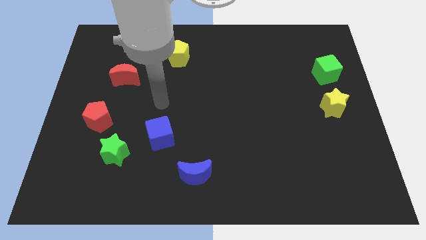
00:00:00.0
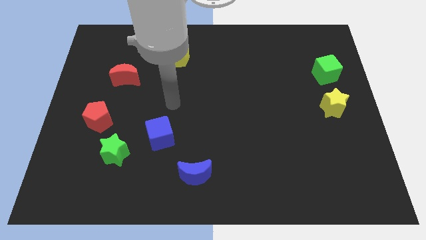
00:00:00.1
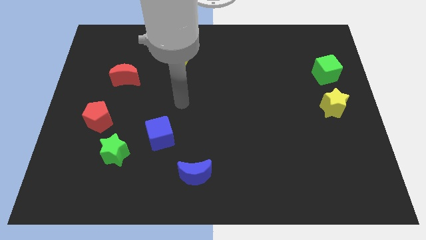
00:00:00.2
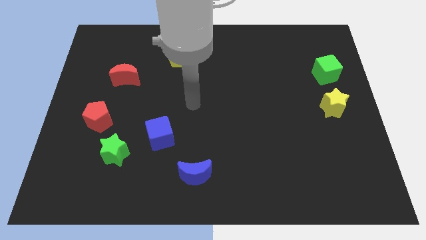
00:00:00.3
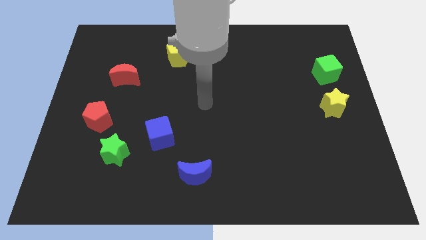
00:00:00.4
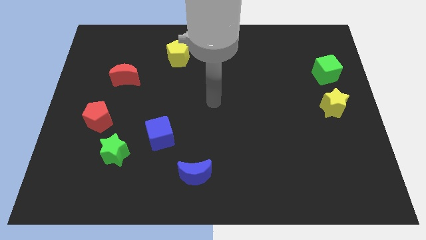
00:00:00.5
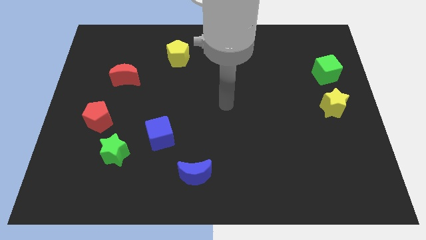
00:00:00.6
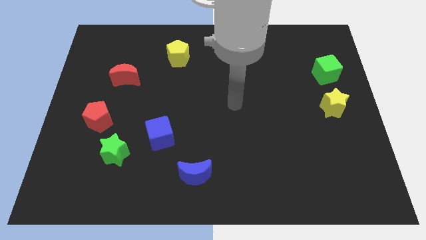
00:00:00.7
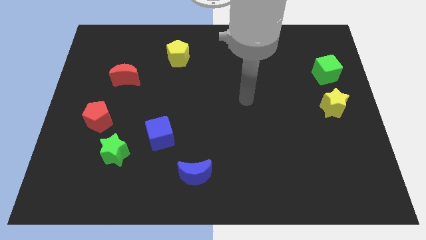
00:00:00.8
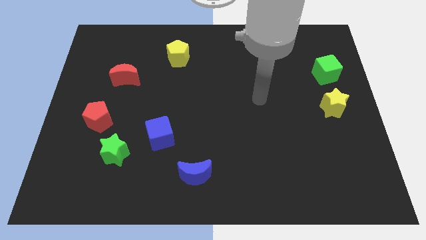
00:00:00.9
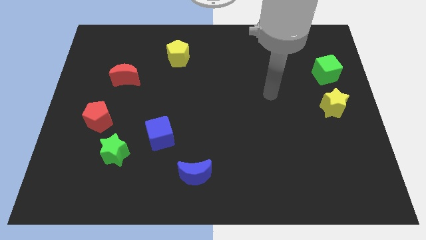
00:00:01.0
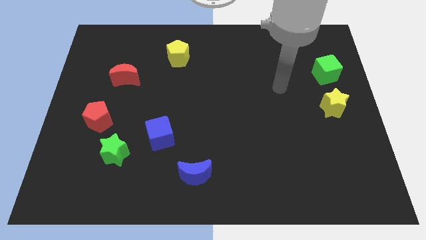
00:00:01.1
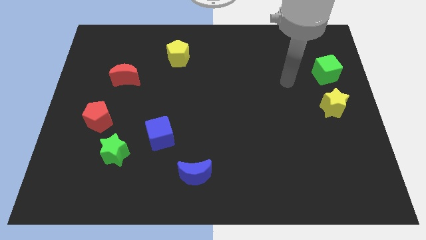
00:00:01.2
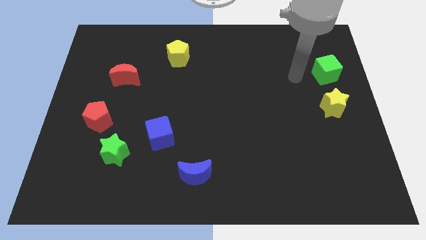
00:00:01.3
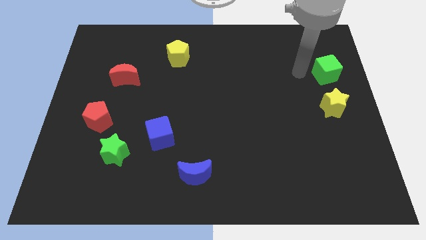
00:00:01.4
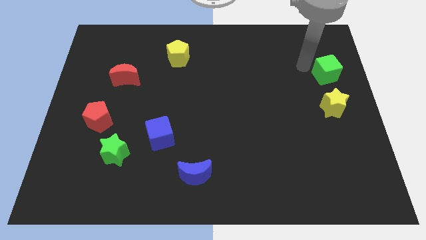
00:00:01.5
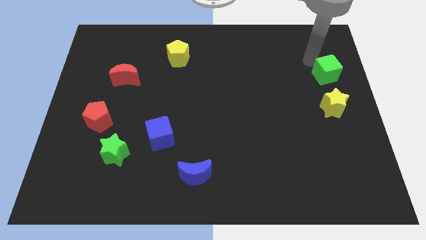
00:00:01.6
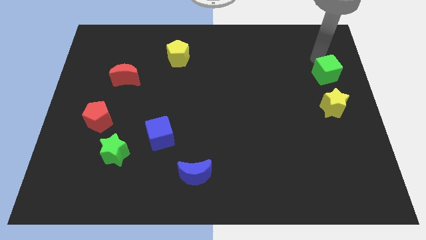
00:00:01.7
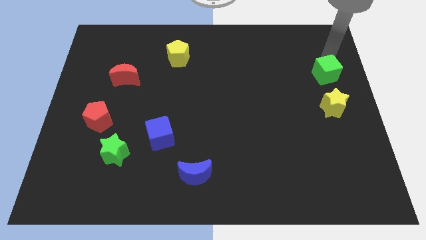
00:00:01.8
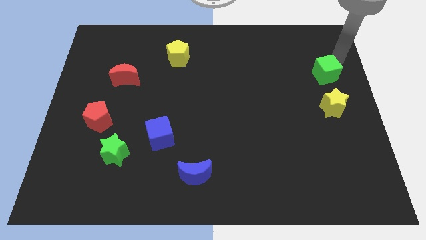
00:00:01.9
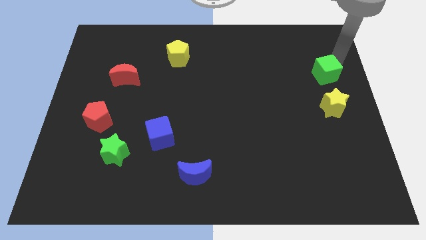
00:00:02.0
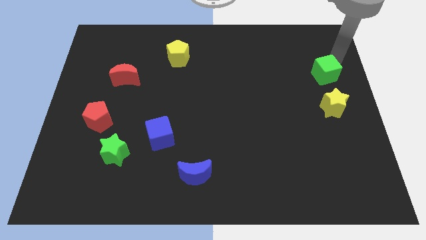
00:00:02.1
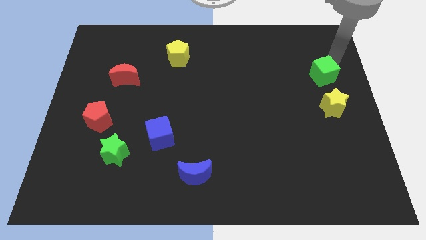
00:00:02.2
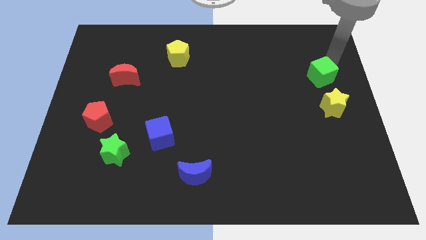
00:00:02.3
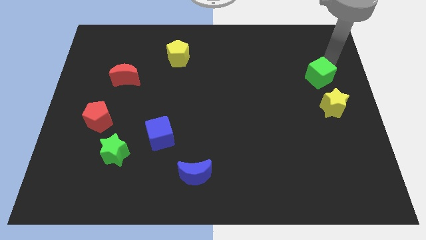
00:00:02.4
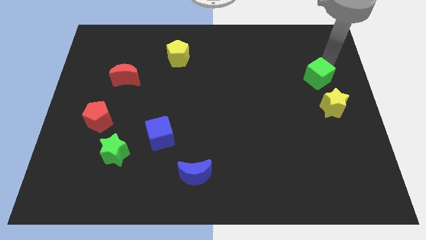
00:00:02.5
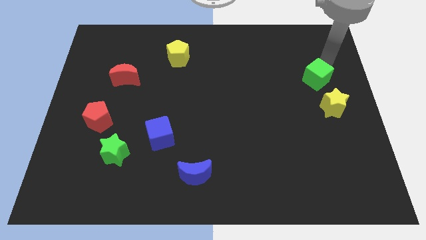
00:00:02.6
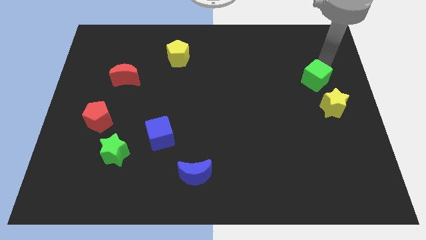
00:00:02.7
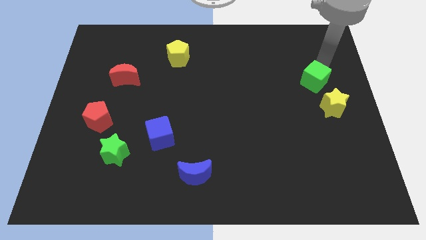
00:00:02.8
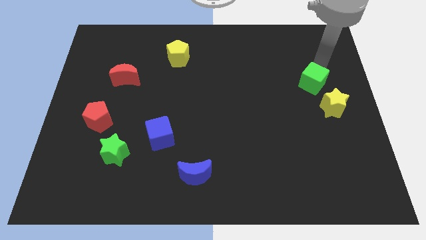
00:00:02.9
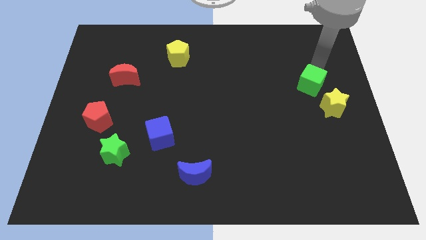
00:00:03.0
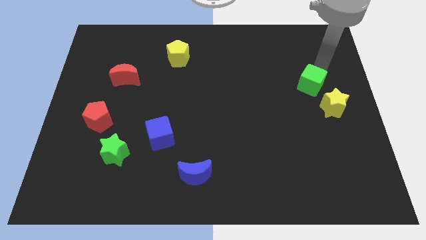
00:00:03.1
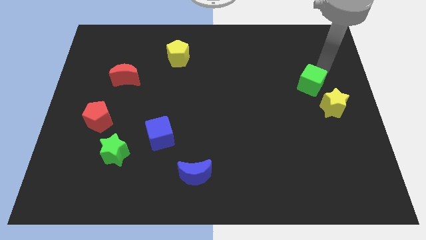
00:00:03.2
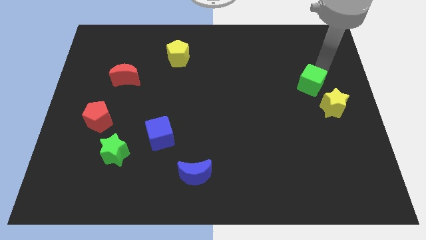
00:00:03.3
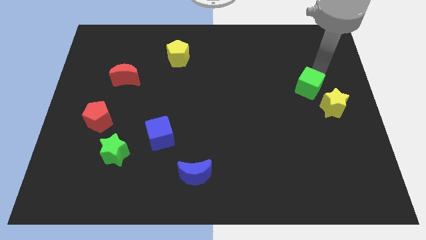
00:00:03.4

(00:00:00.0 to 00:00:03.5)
slide the green cube downwards and to the left a bit

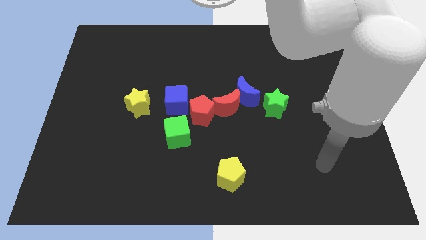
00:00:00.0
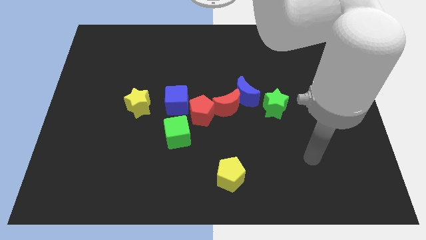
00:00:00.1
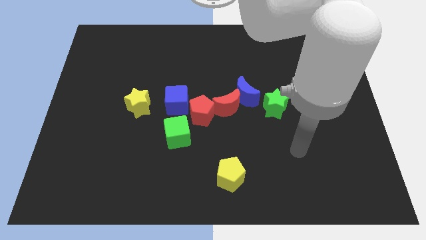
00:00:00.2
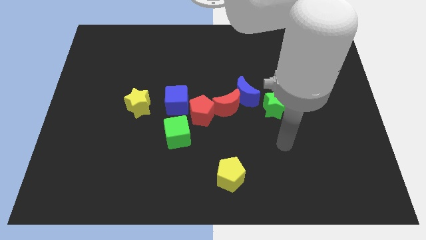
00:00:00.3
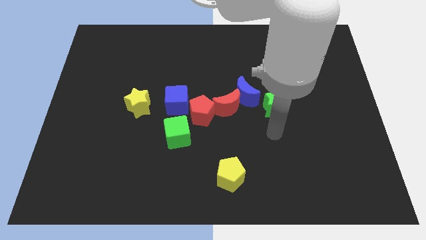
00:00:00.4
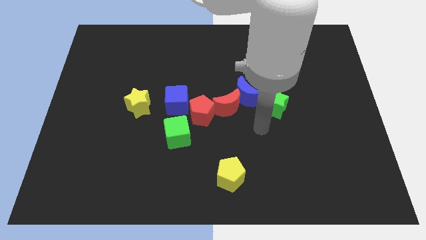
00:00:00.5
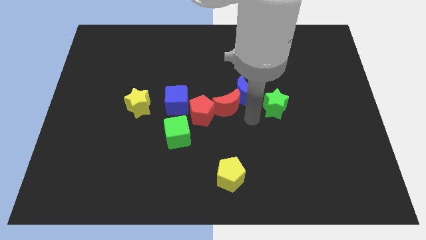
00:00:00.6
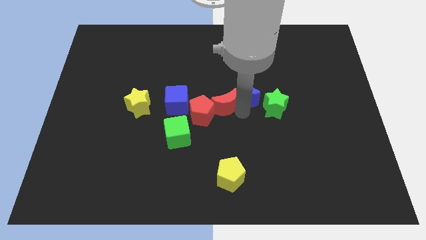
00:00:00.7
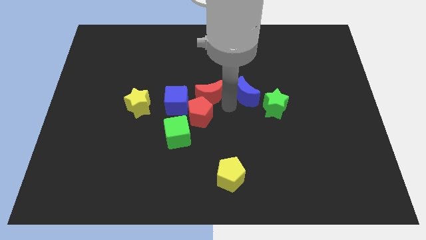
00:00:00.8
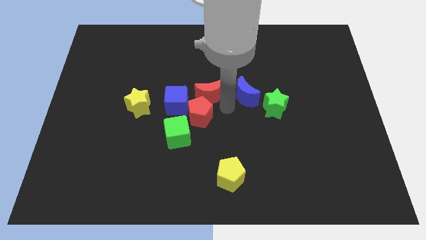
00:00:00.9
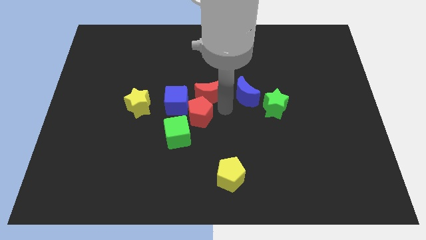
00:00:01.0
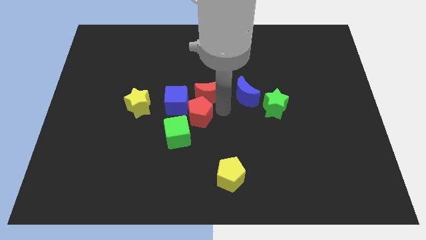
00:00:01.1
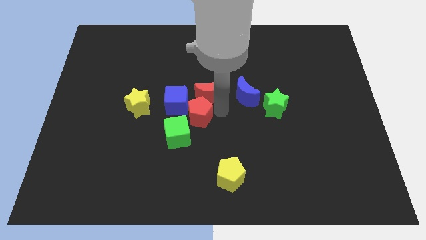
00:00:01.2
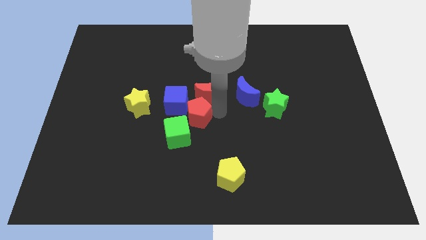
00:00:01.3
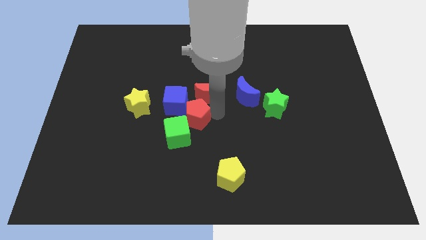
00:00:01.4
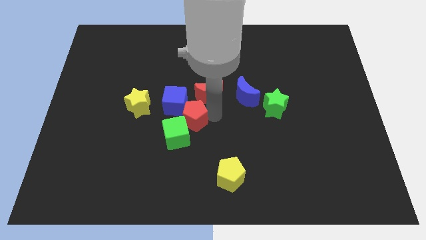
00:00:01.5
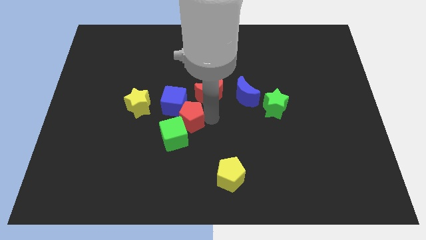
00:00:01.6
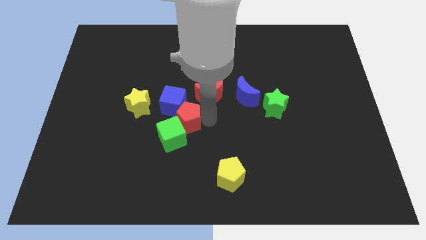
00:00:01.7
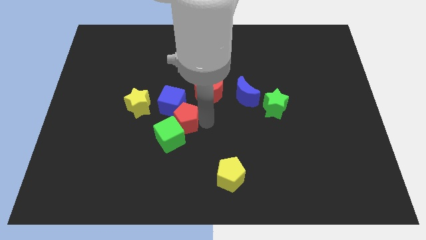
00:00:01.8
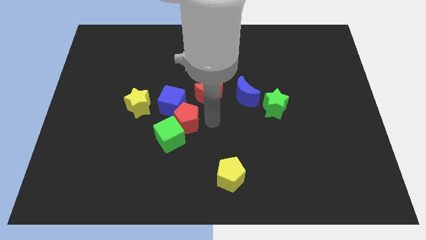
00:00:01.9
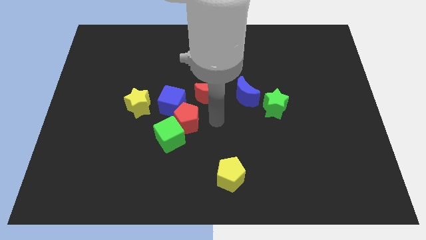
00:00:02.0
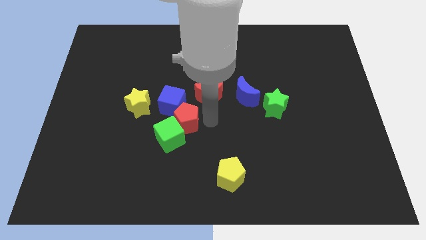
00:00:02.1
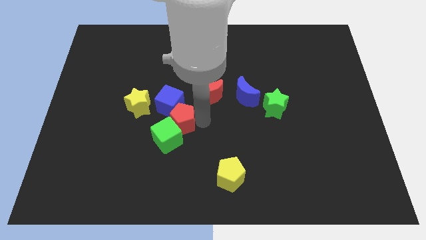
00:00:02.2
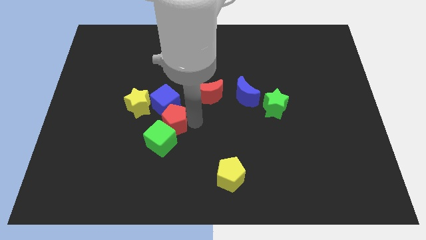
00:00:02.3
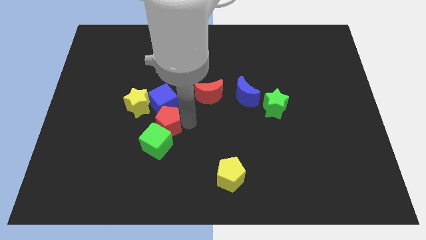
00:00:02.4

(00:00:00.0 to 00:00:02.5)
slide the red pentagon left a little

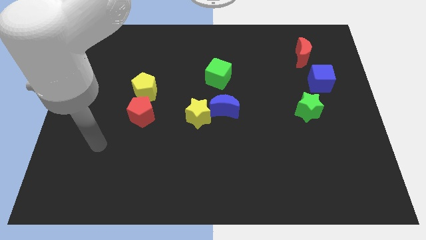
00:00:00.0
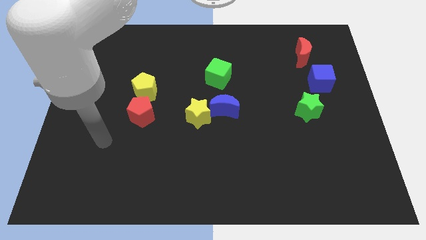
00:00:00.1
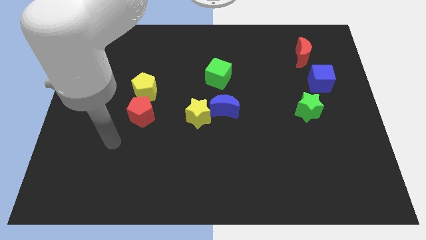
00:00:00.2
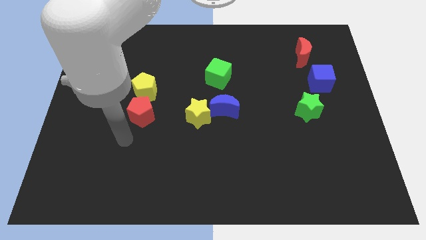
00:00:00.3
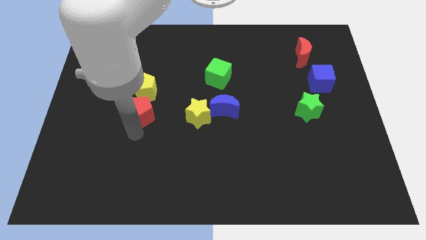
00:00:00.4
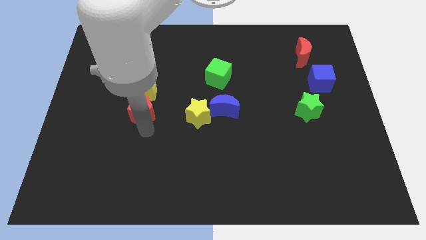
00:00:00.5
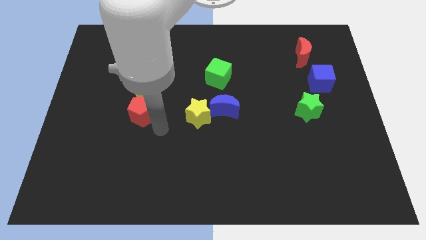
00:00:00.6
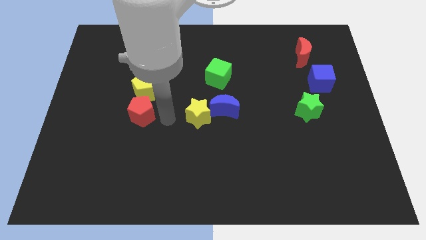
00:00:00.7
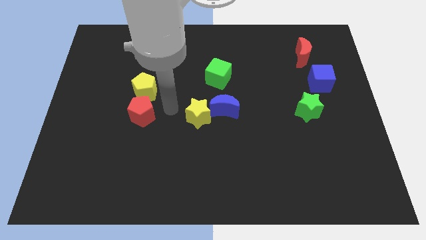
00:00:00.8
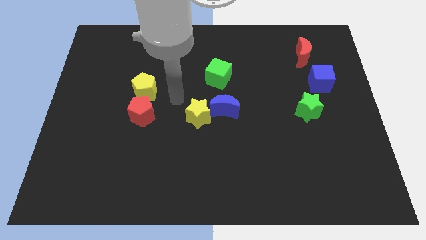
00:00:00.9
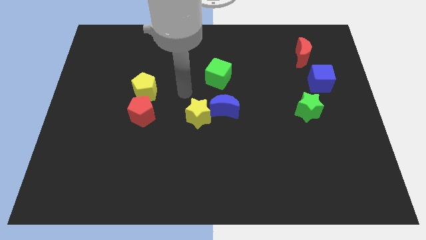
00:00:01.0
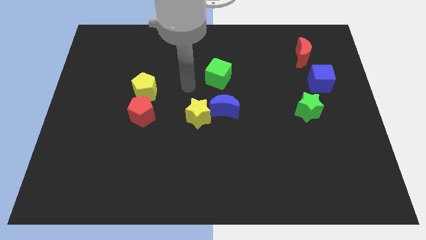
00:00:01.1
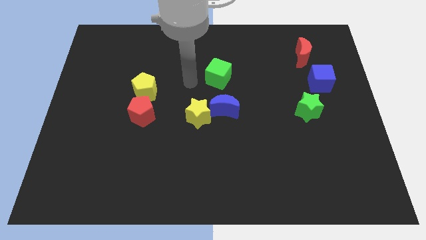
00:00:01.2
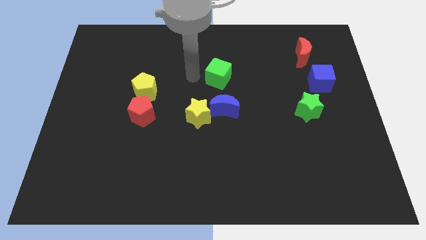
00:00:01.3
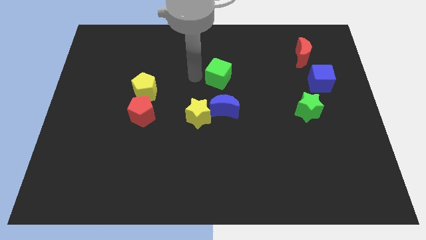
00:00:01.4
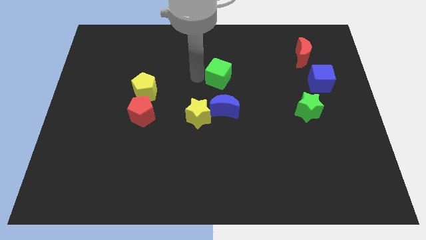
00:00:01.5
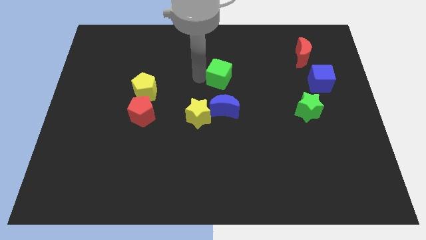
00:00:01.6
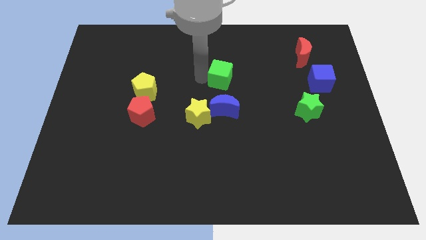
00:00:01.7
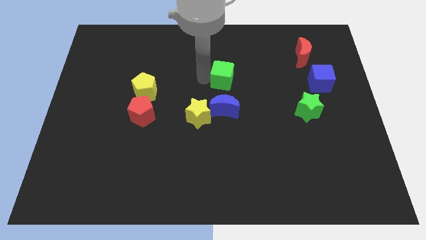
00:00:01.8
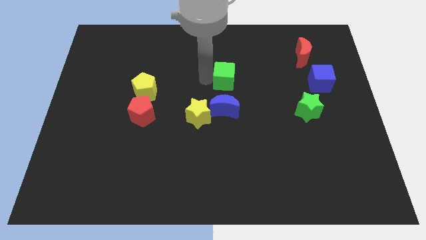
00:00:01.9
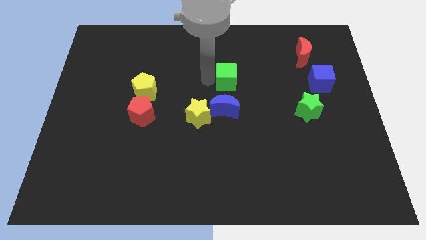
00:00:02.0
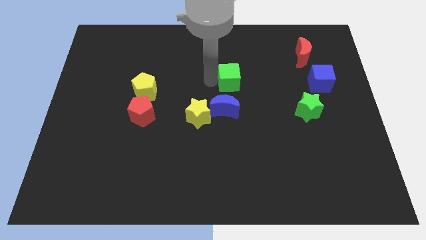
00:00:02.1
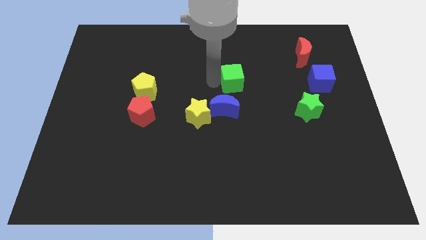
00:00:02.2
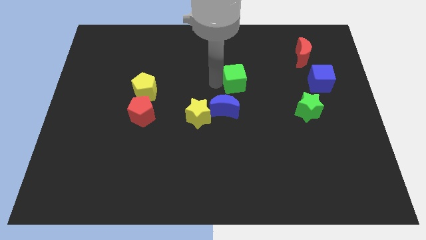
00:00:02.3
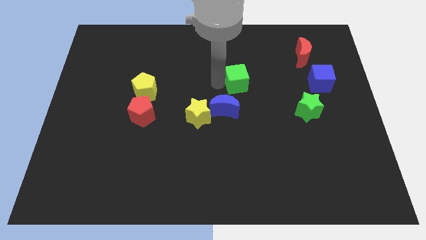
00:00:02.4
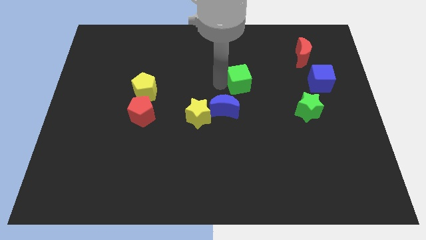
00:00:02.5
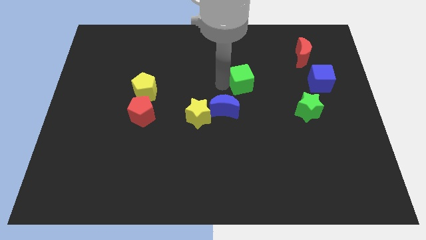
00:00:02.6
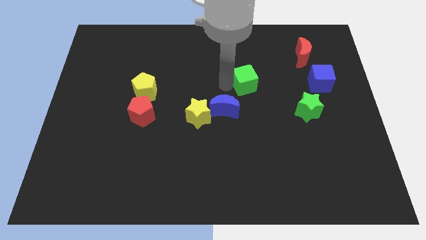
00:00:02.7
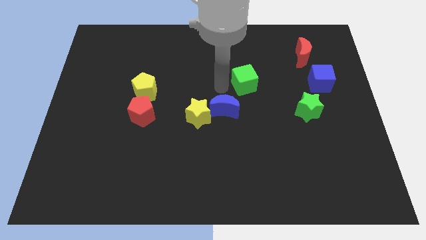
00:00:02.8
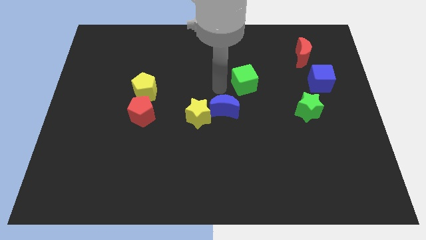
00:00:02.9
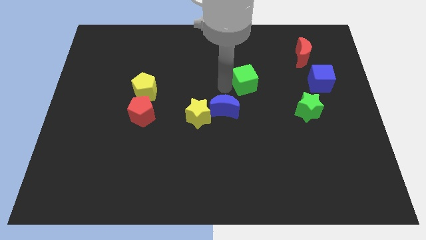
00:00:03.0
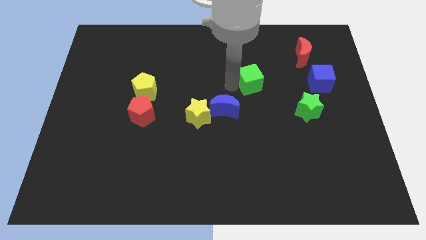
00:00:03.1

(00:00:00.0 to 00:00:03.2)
slightly push the green cube right
